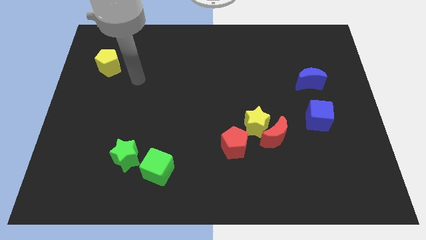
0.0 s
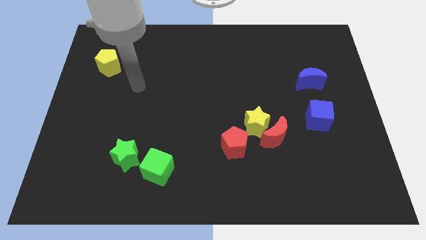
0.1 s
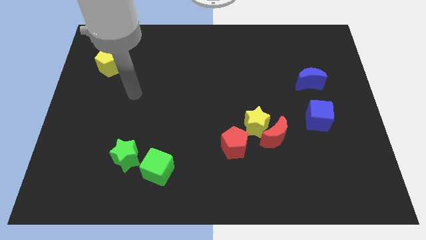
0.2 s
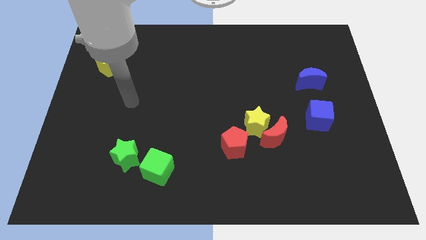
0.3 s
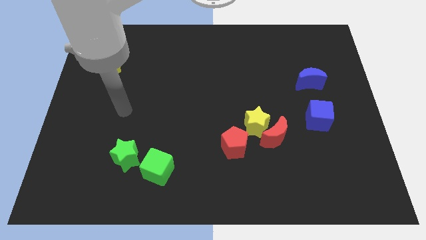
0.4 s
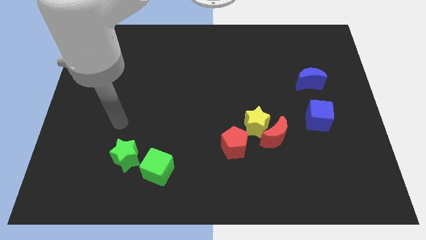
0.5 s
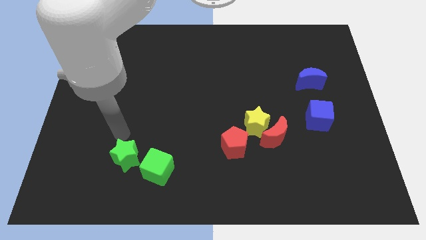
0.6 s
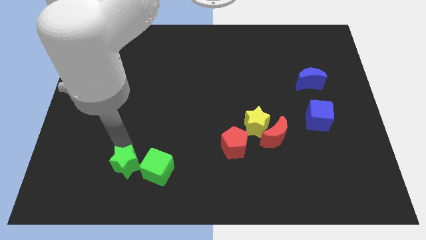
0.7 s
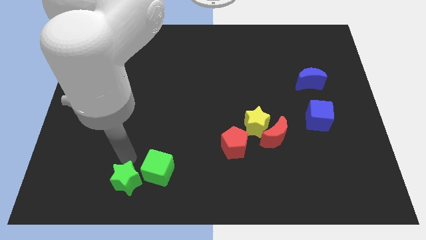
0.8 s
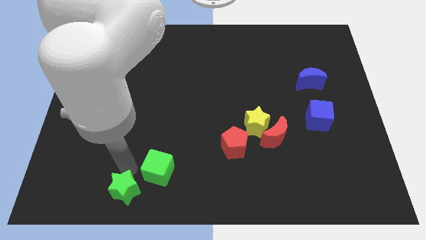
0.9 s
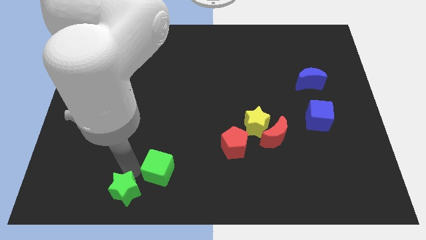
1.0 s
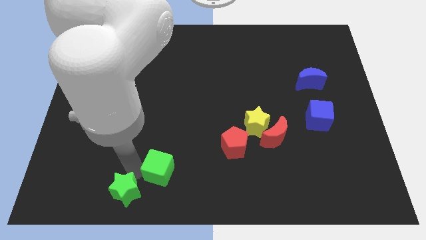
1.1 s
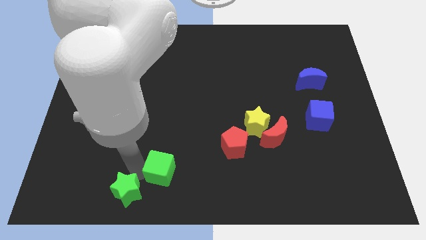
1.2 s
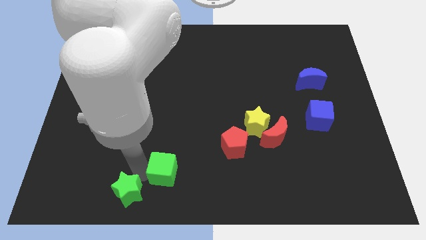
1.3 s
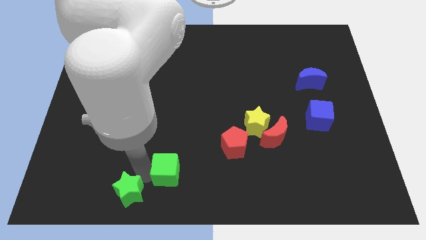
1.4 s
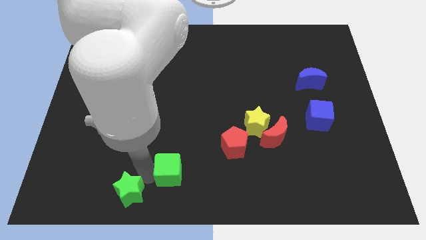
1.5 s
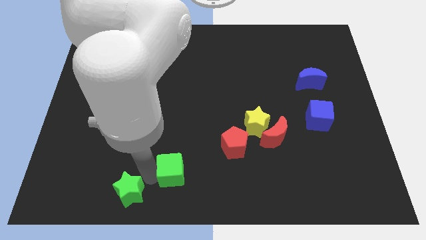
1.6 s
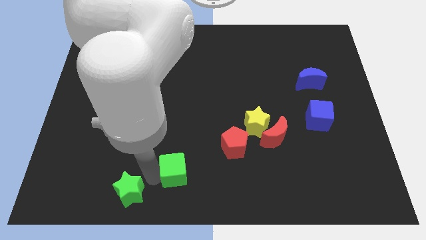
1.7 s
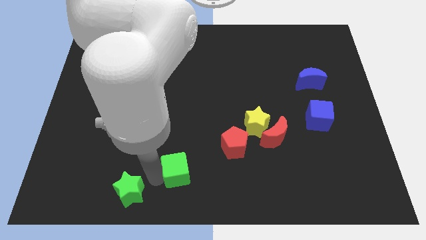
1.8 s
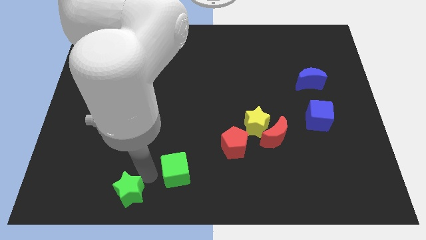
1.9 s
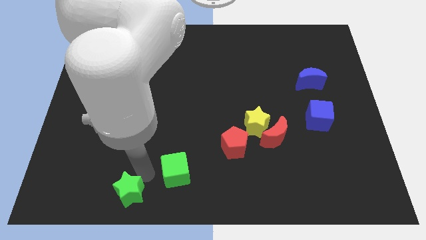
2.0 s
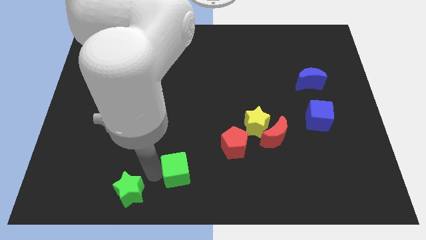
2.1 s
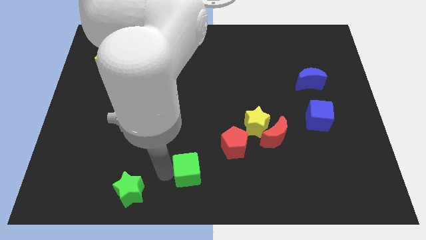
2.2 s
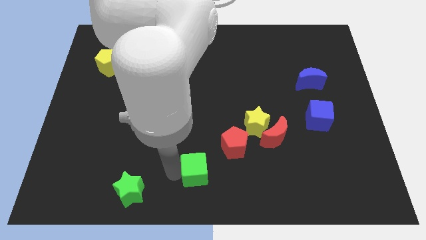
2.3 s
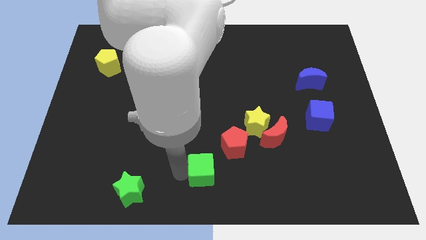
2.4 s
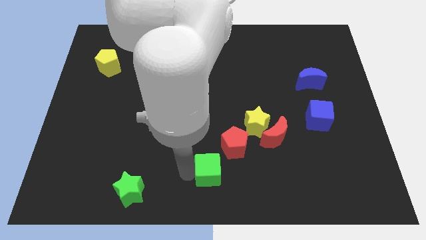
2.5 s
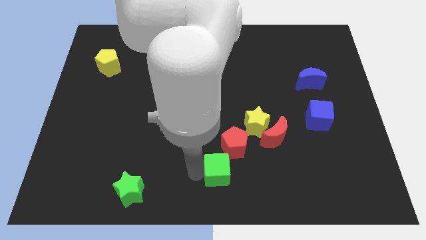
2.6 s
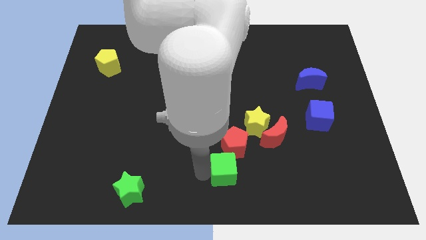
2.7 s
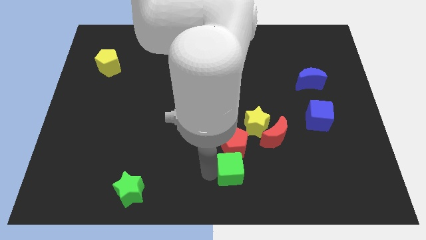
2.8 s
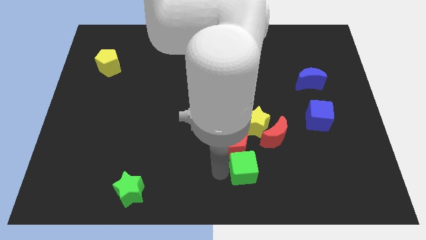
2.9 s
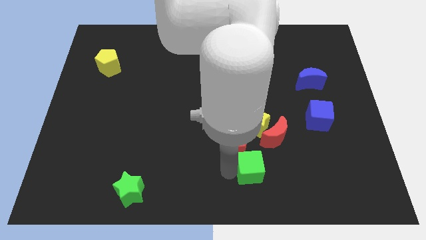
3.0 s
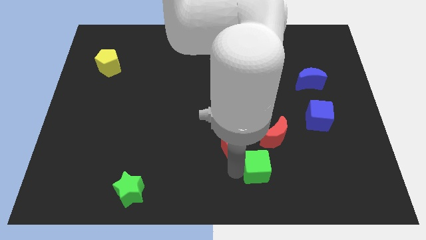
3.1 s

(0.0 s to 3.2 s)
move the green cube right

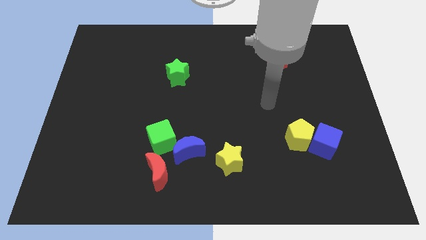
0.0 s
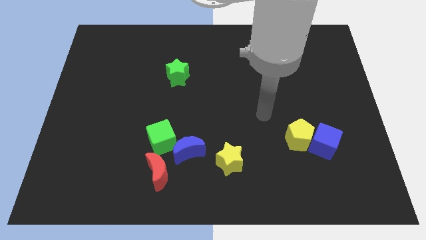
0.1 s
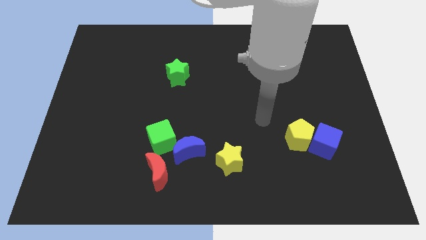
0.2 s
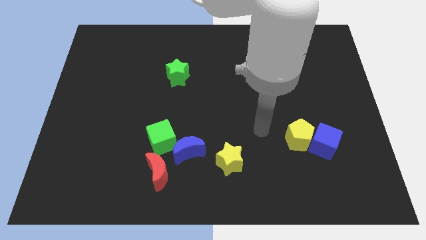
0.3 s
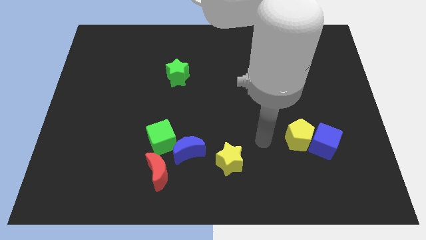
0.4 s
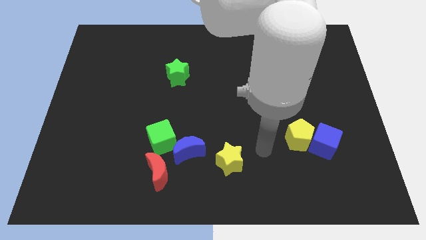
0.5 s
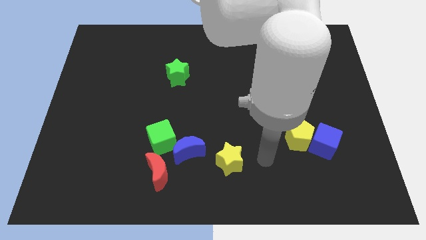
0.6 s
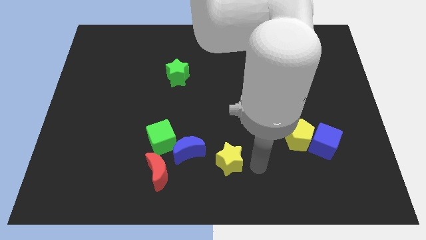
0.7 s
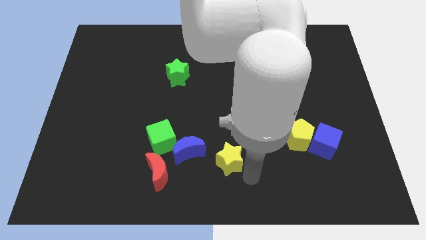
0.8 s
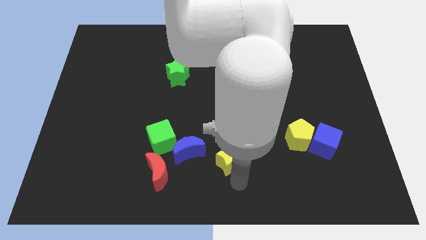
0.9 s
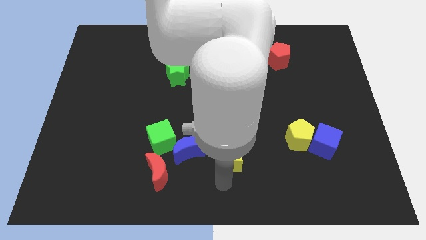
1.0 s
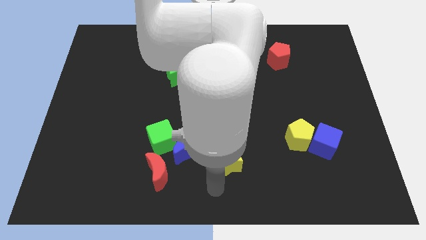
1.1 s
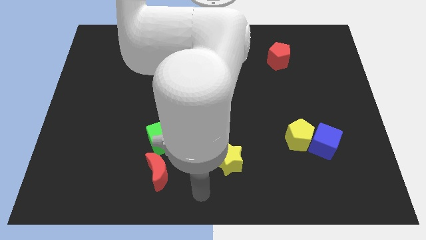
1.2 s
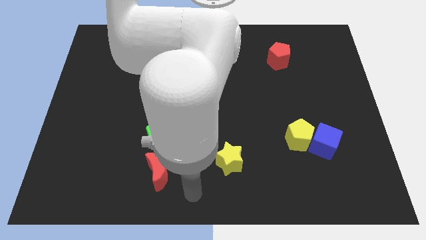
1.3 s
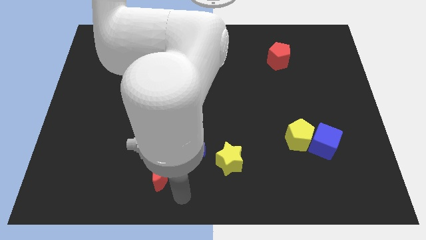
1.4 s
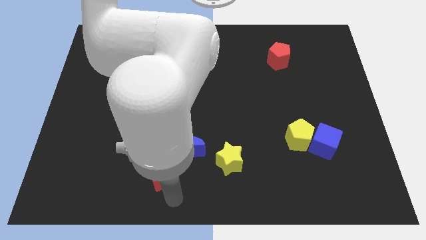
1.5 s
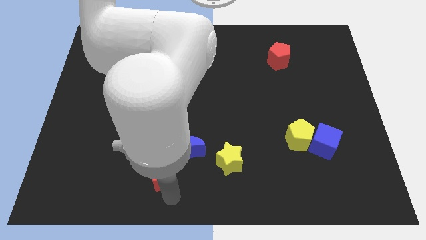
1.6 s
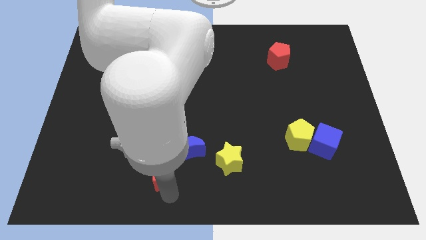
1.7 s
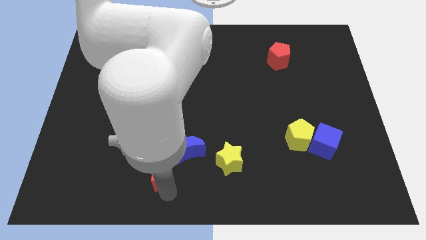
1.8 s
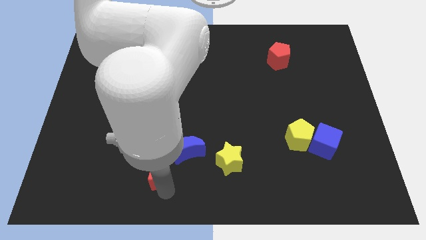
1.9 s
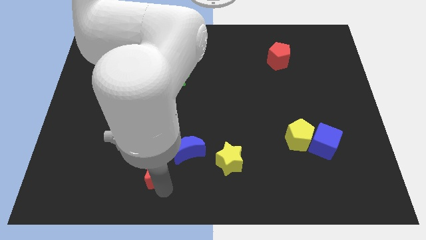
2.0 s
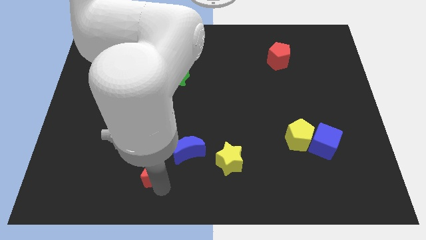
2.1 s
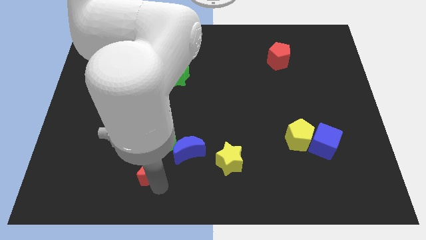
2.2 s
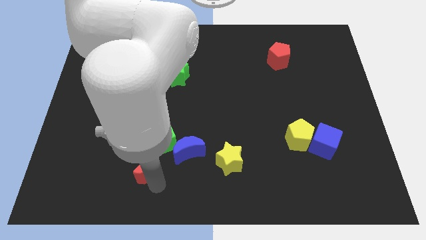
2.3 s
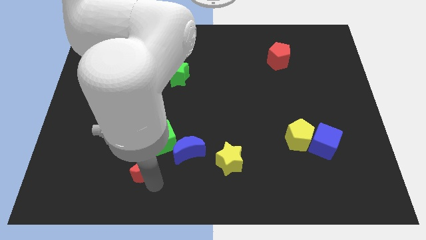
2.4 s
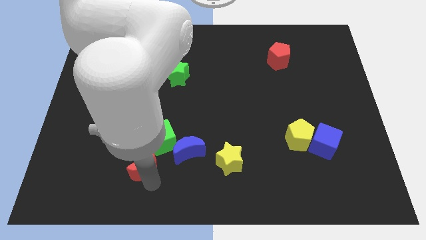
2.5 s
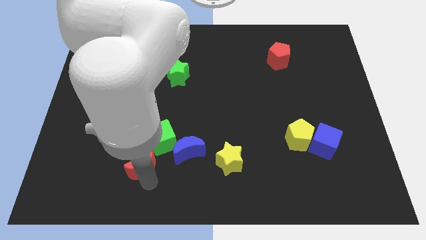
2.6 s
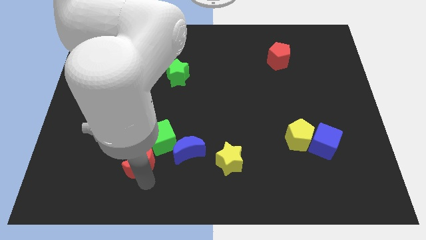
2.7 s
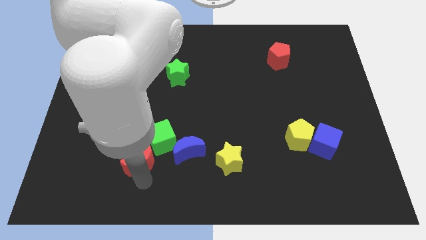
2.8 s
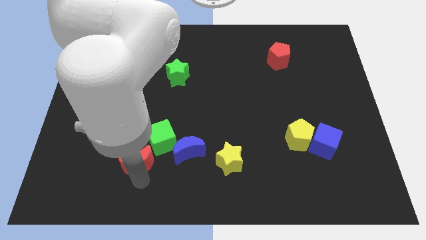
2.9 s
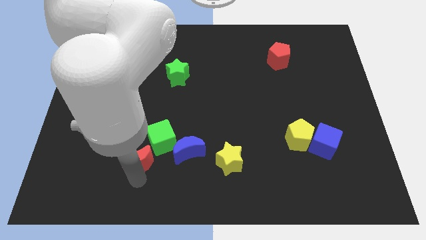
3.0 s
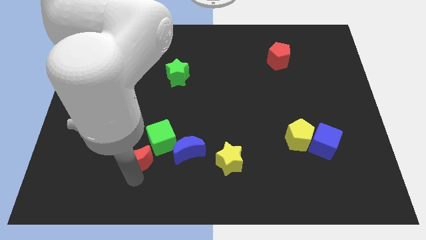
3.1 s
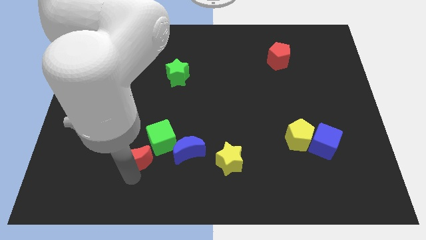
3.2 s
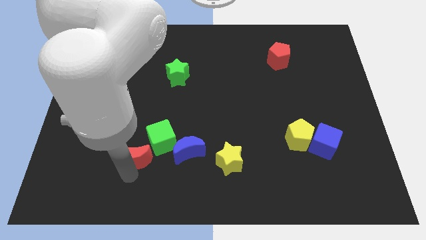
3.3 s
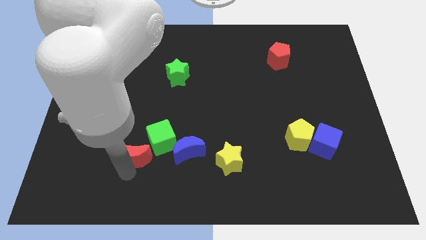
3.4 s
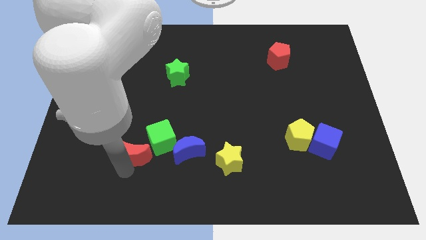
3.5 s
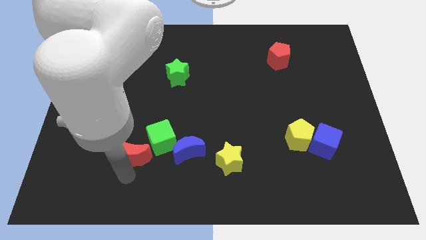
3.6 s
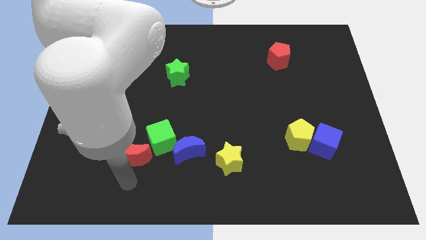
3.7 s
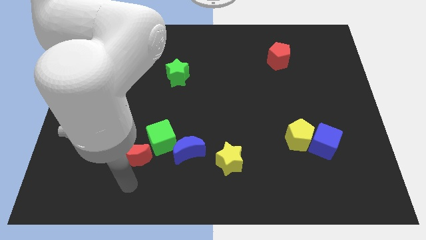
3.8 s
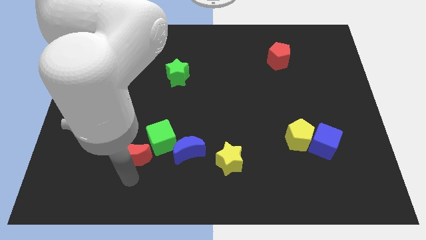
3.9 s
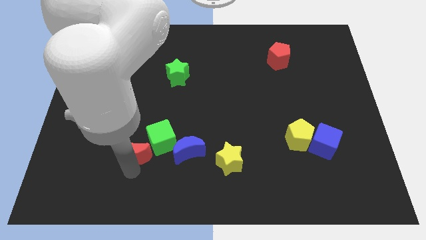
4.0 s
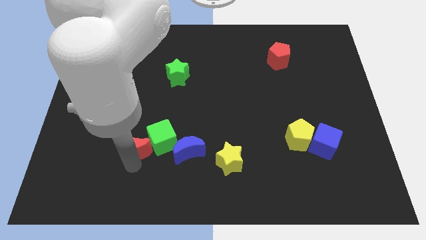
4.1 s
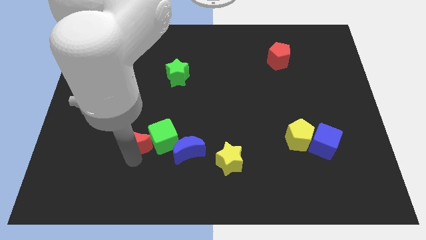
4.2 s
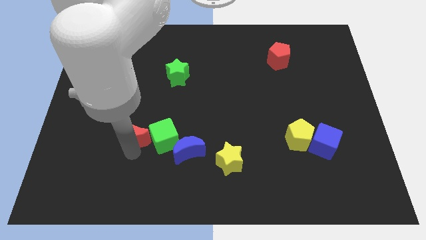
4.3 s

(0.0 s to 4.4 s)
slide the red moon a little bit upwards

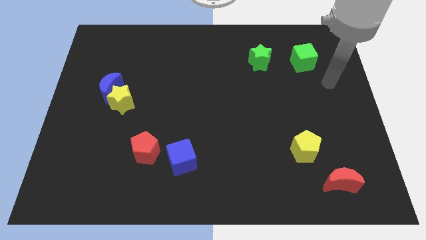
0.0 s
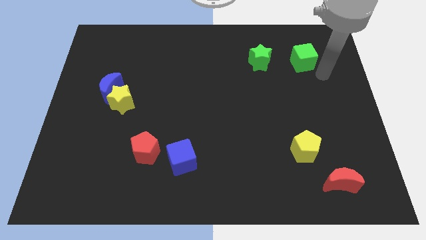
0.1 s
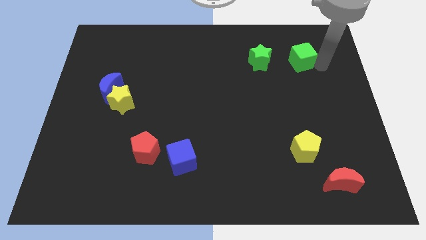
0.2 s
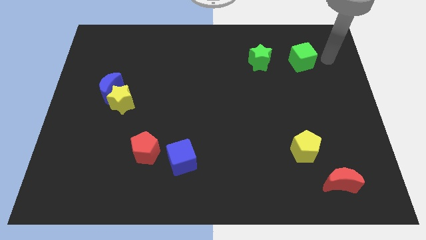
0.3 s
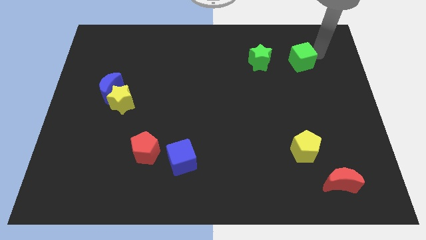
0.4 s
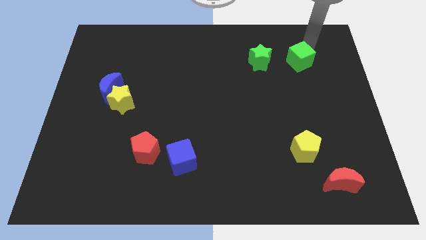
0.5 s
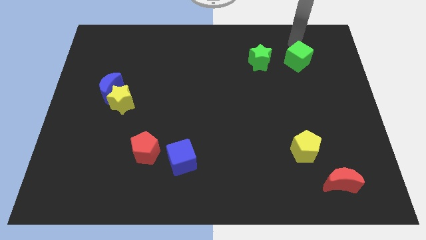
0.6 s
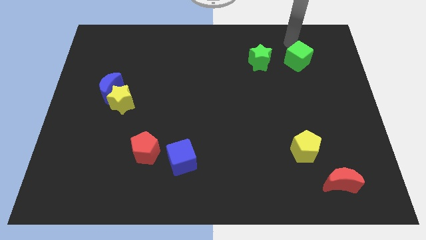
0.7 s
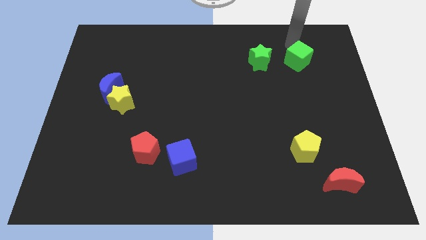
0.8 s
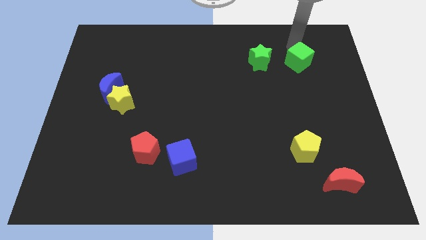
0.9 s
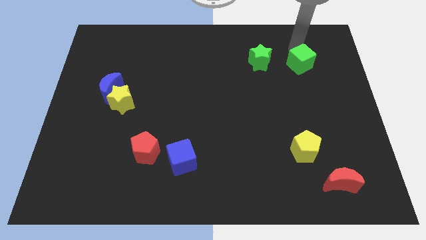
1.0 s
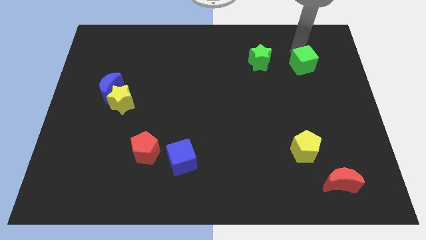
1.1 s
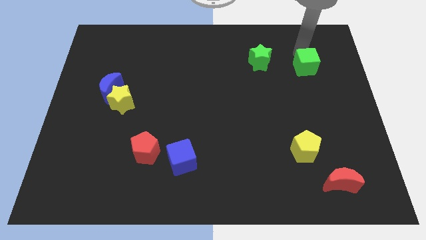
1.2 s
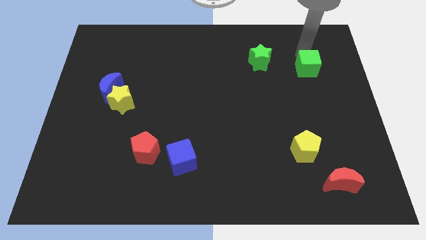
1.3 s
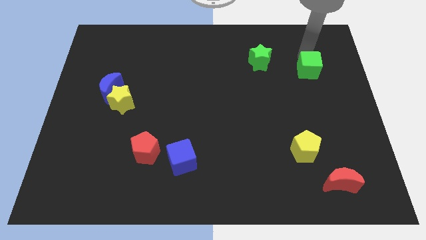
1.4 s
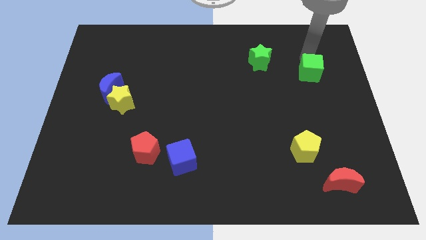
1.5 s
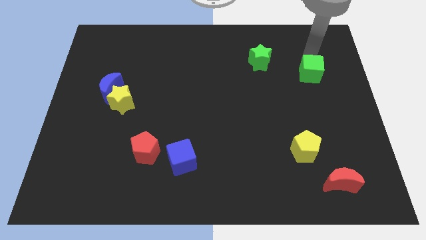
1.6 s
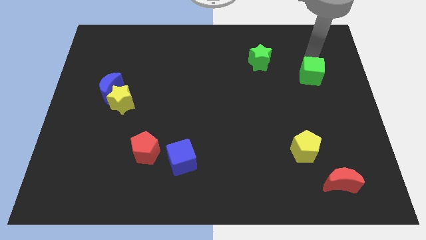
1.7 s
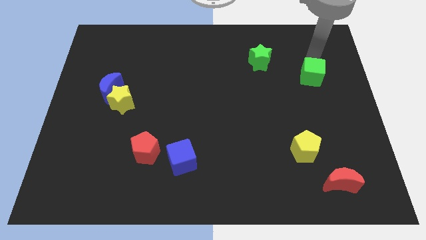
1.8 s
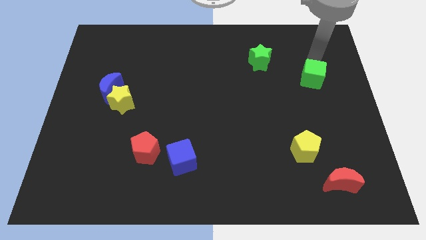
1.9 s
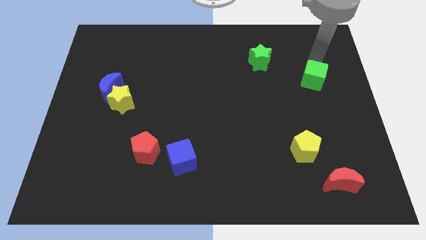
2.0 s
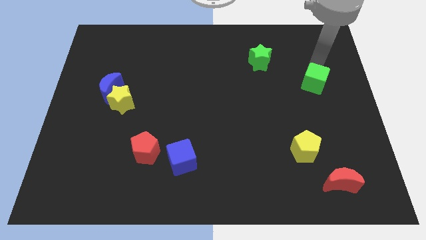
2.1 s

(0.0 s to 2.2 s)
push the green cube a little down
